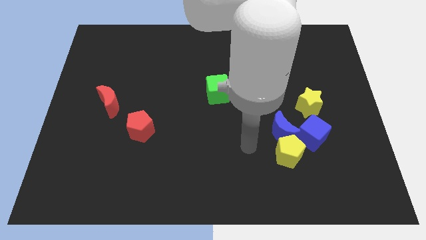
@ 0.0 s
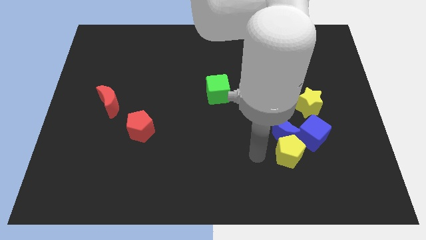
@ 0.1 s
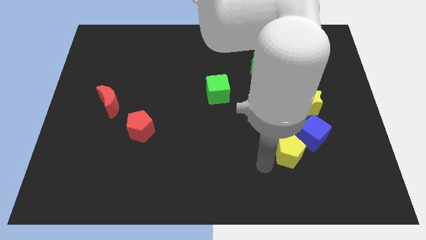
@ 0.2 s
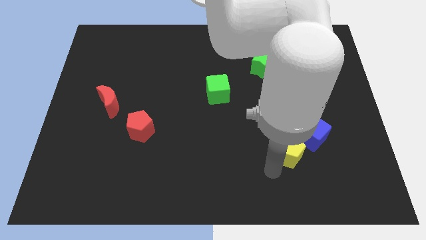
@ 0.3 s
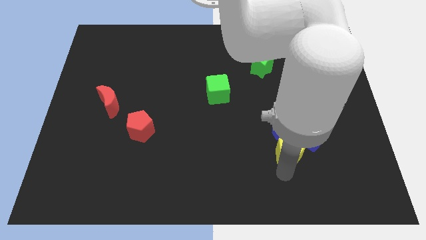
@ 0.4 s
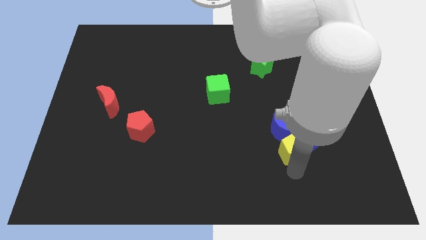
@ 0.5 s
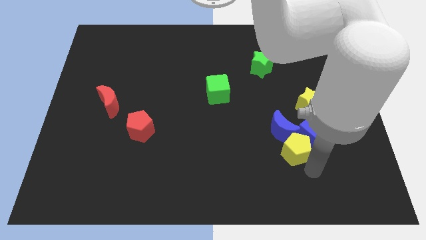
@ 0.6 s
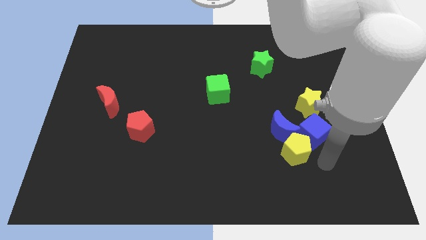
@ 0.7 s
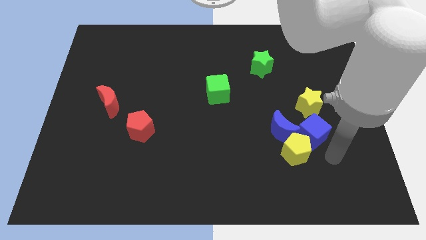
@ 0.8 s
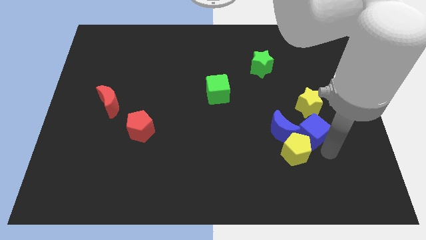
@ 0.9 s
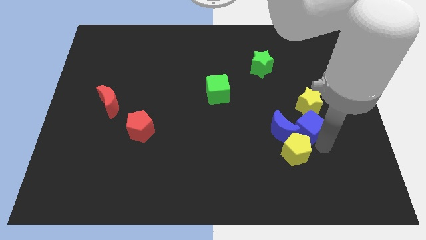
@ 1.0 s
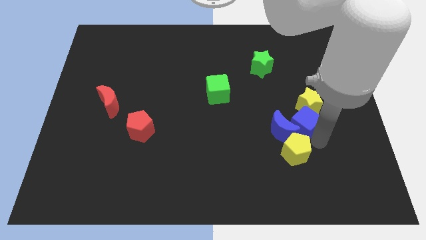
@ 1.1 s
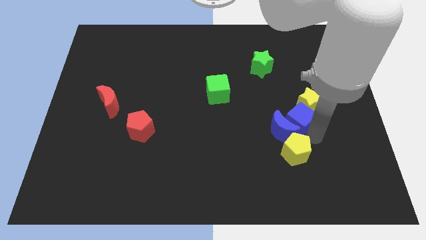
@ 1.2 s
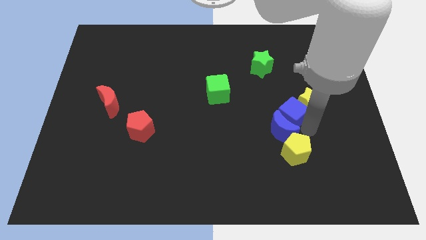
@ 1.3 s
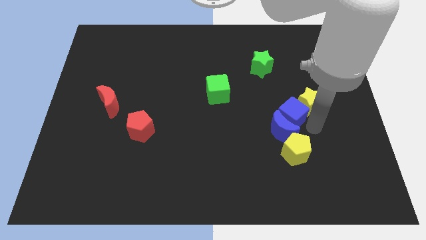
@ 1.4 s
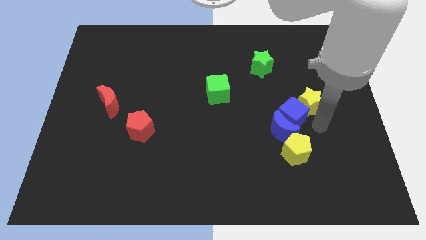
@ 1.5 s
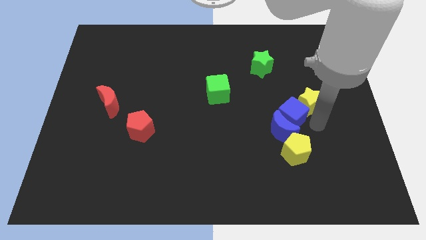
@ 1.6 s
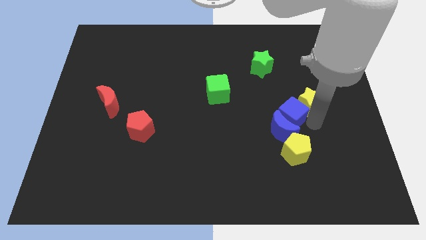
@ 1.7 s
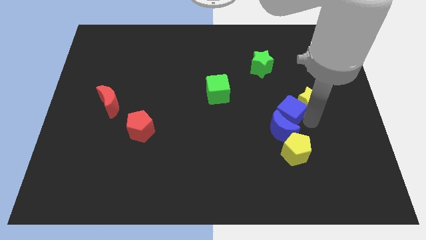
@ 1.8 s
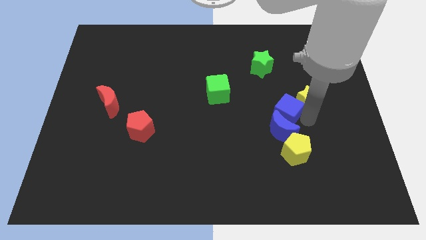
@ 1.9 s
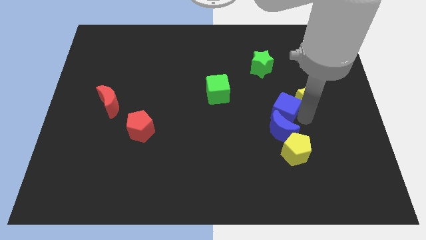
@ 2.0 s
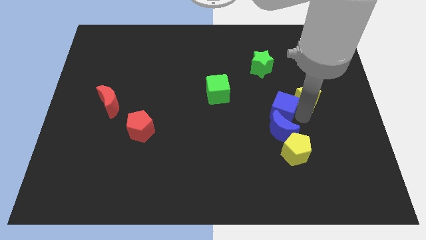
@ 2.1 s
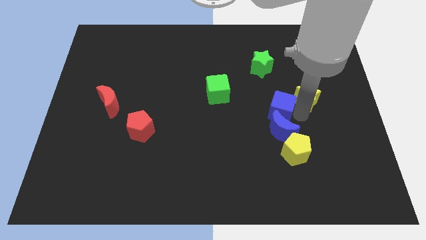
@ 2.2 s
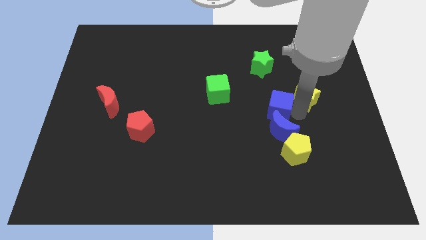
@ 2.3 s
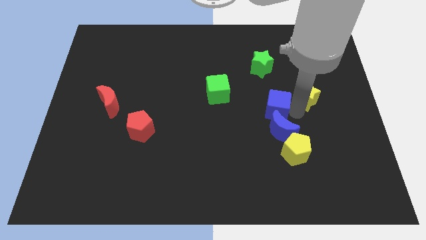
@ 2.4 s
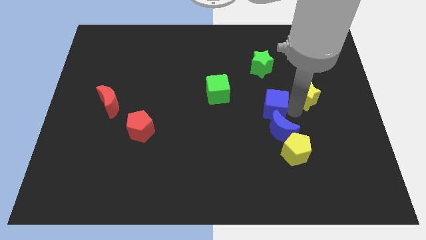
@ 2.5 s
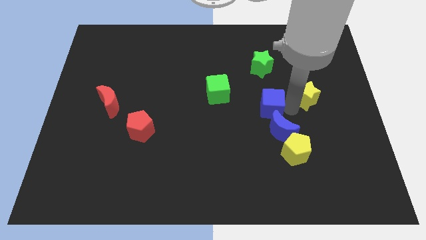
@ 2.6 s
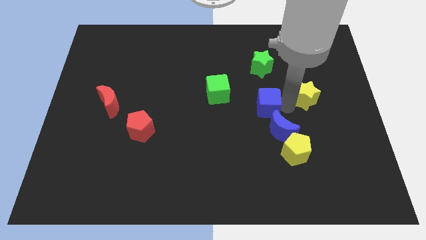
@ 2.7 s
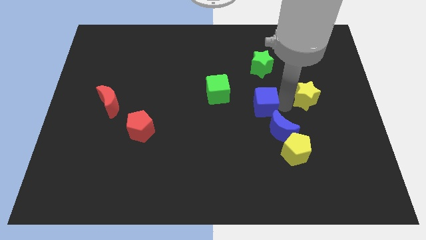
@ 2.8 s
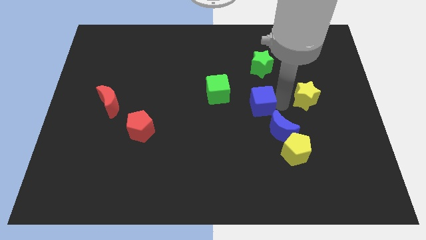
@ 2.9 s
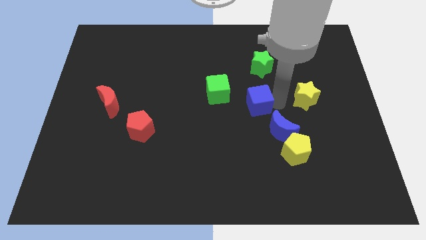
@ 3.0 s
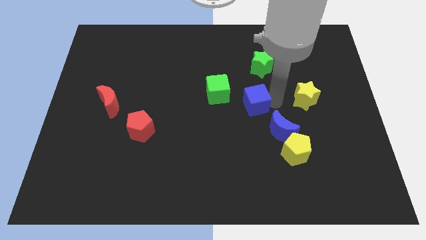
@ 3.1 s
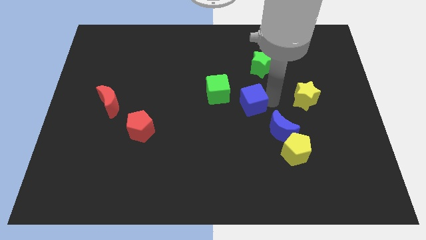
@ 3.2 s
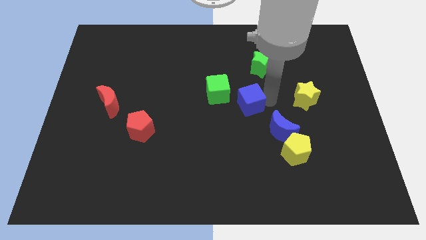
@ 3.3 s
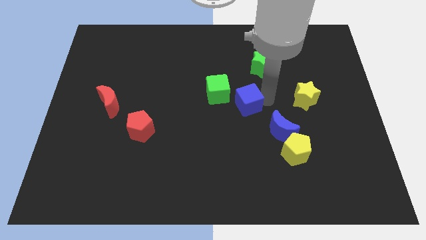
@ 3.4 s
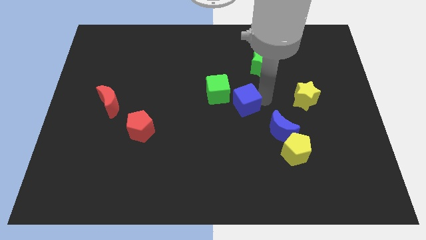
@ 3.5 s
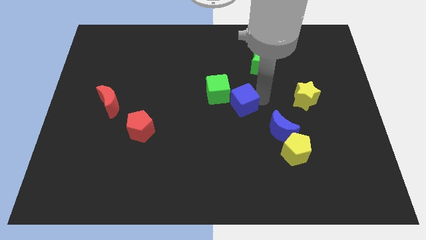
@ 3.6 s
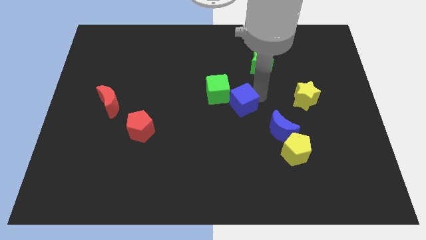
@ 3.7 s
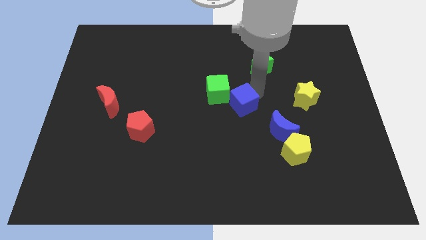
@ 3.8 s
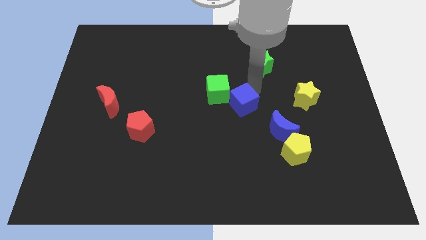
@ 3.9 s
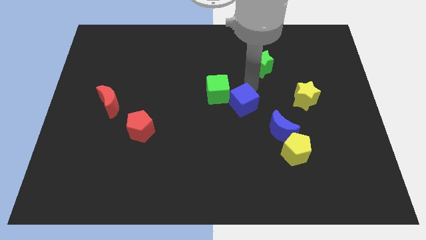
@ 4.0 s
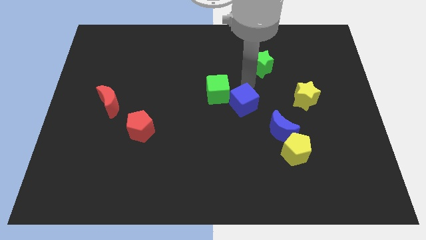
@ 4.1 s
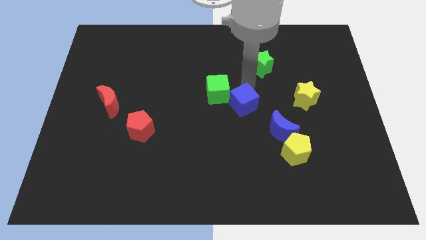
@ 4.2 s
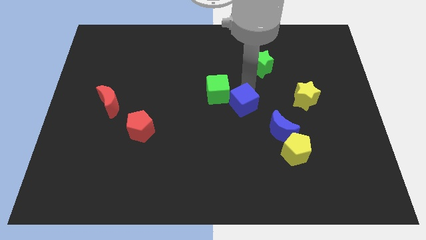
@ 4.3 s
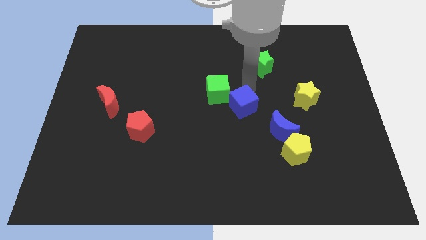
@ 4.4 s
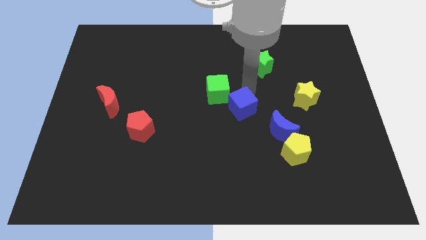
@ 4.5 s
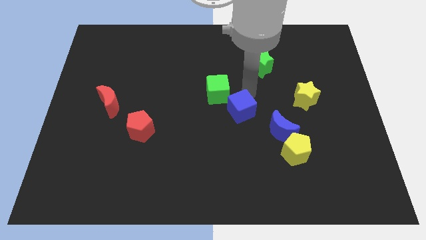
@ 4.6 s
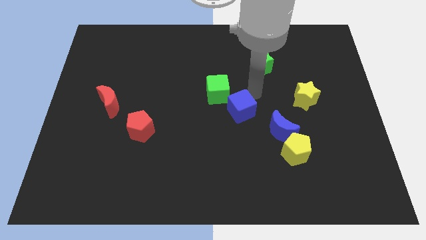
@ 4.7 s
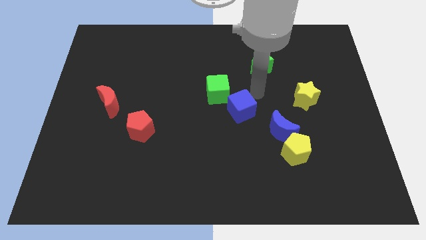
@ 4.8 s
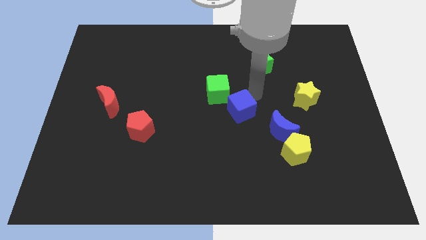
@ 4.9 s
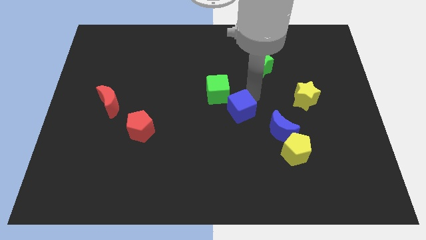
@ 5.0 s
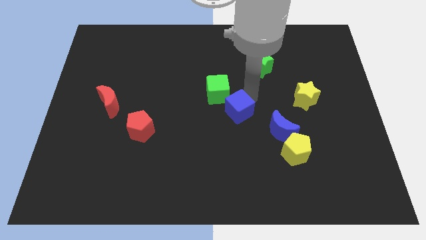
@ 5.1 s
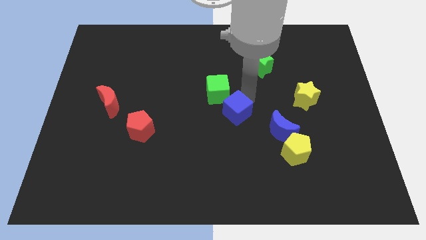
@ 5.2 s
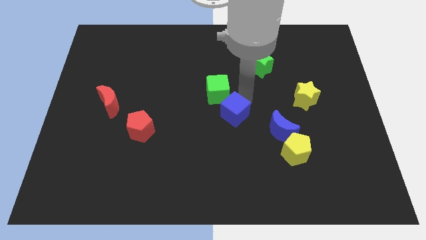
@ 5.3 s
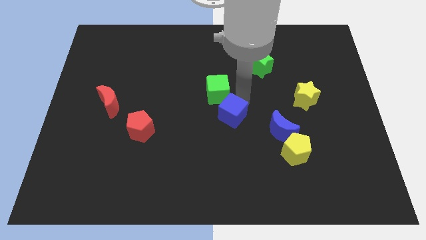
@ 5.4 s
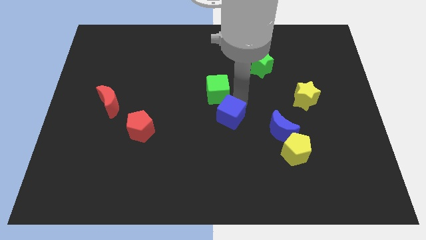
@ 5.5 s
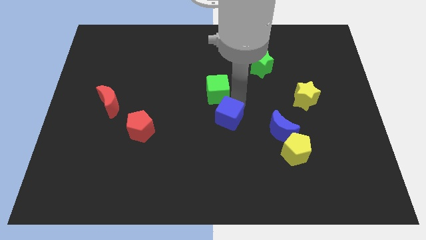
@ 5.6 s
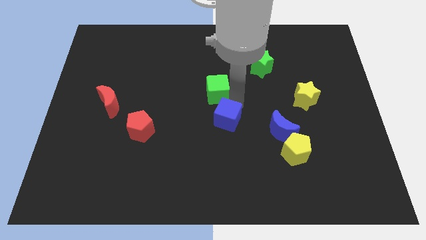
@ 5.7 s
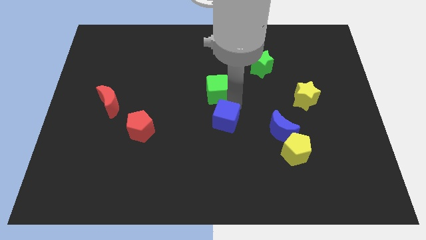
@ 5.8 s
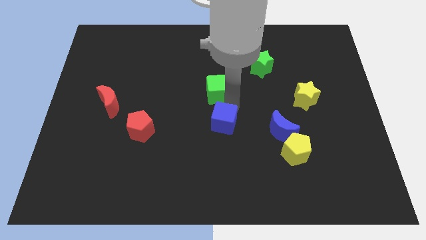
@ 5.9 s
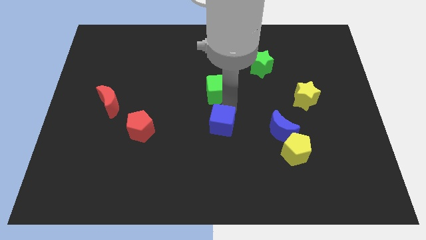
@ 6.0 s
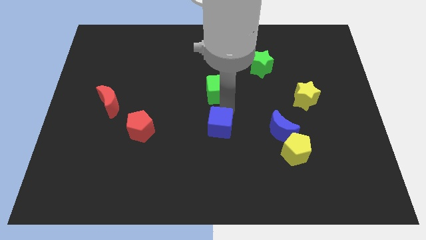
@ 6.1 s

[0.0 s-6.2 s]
slide the blue cube to the left

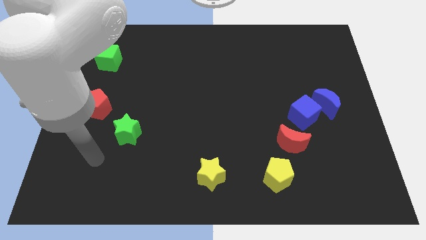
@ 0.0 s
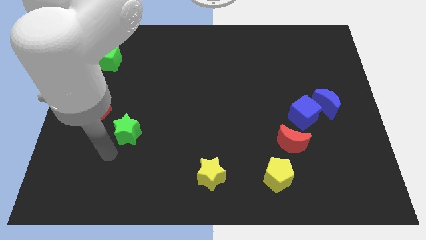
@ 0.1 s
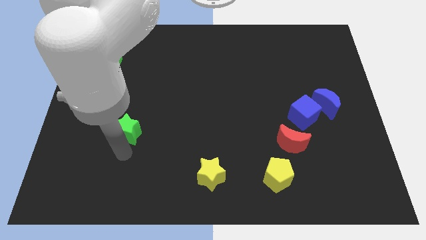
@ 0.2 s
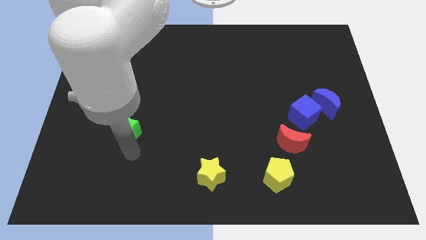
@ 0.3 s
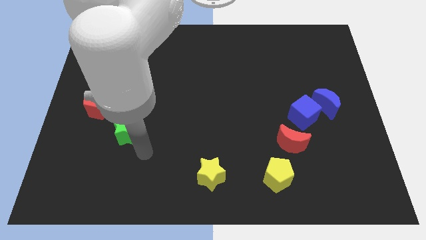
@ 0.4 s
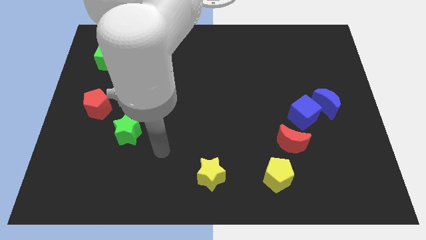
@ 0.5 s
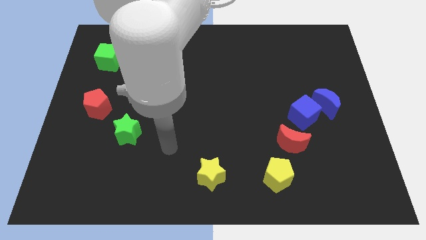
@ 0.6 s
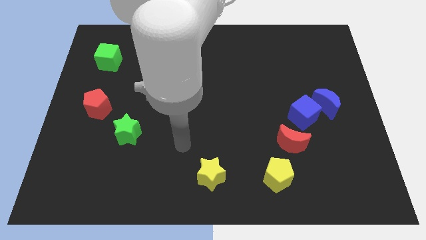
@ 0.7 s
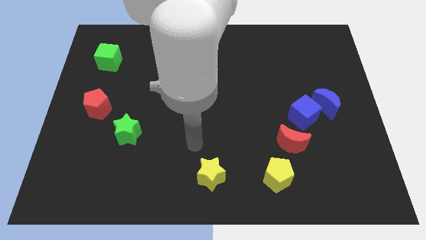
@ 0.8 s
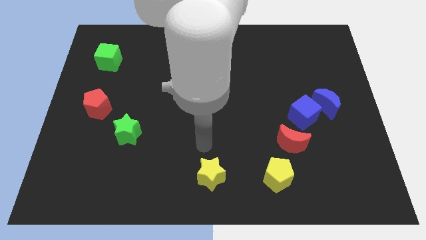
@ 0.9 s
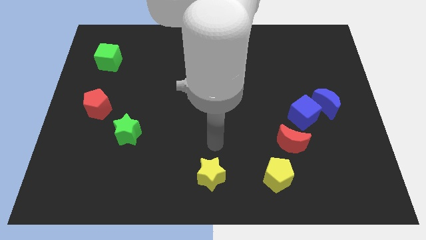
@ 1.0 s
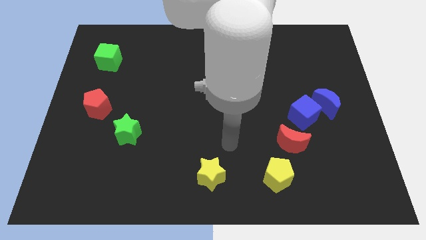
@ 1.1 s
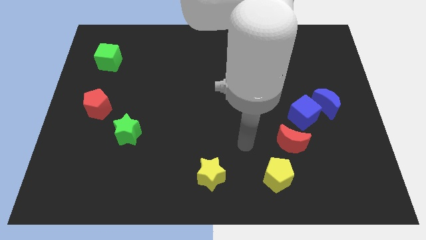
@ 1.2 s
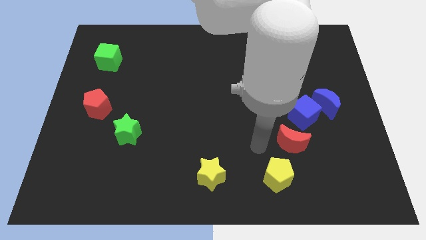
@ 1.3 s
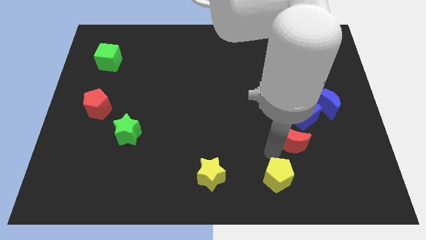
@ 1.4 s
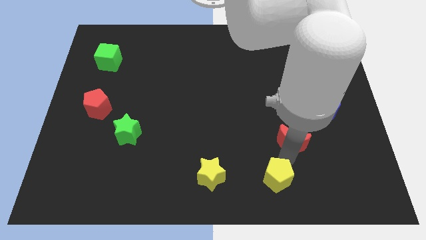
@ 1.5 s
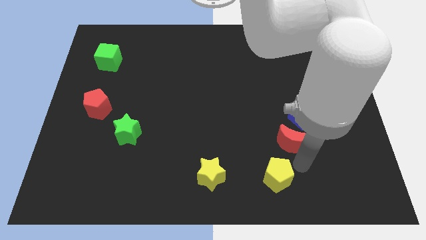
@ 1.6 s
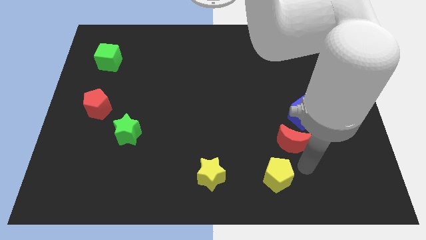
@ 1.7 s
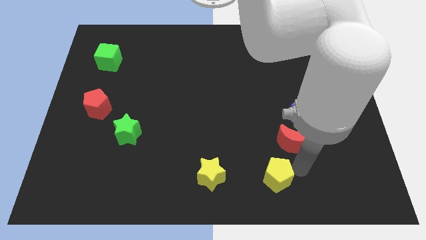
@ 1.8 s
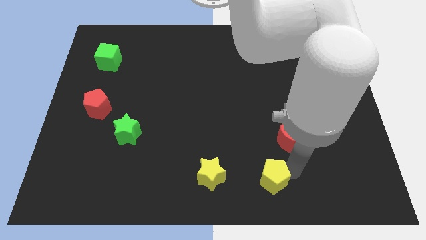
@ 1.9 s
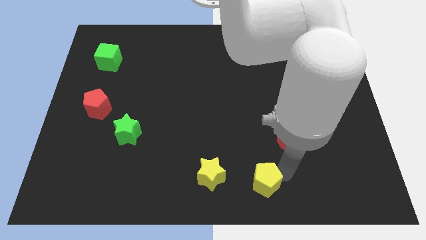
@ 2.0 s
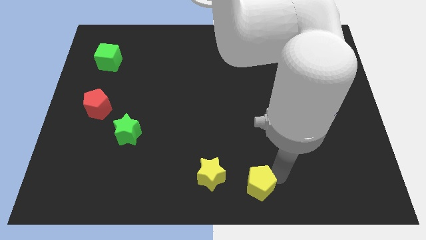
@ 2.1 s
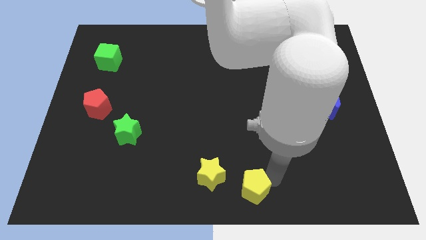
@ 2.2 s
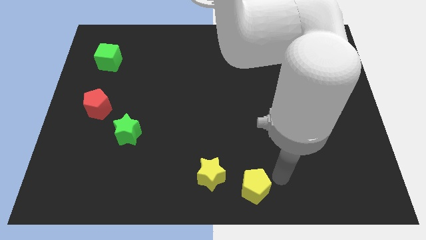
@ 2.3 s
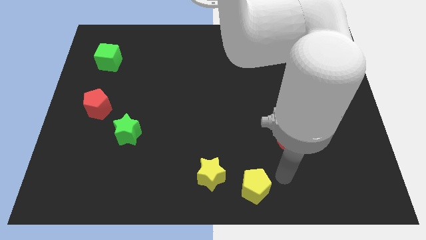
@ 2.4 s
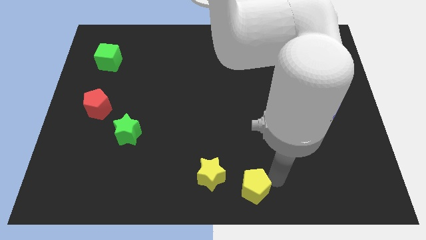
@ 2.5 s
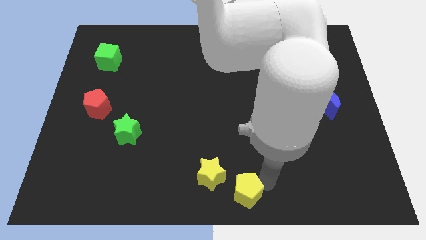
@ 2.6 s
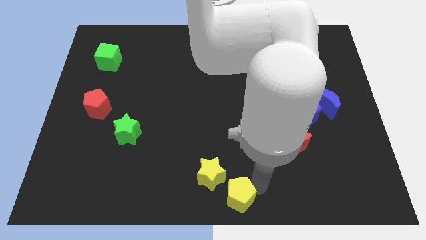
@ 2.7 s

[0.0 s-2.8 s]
slide the yellow pentagon to the left a bit
